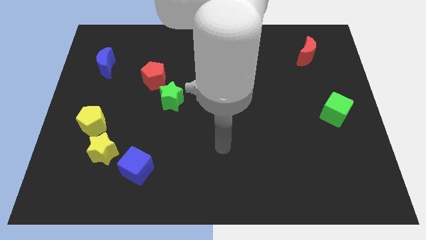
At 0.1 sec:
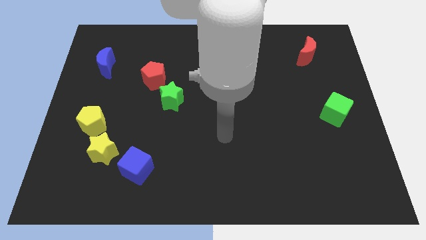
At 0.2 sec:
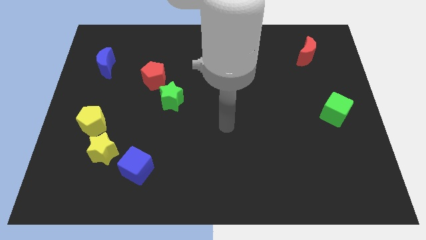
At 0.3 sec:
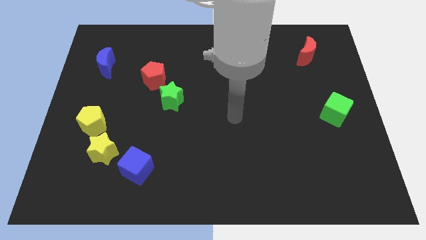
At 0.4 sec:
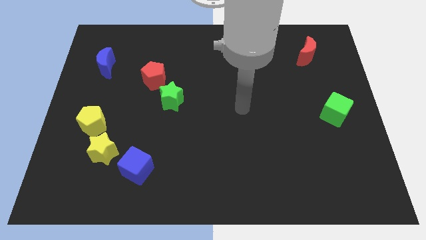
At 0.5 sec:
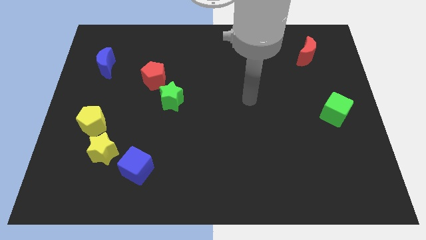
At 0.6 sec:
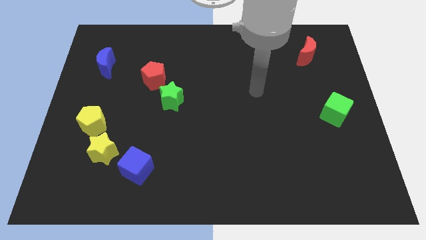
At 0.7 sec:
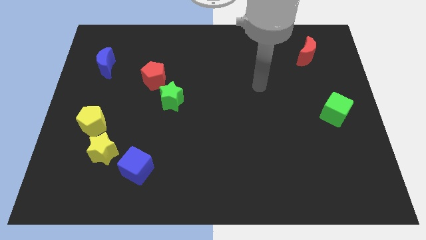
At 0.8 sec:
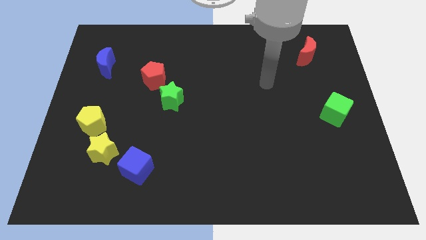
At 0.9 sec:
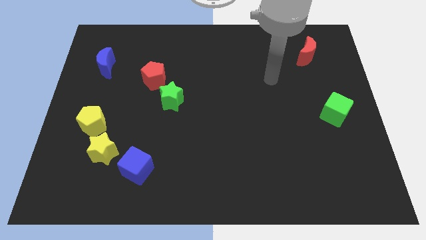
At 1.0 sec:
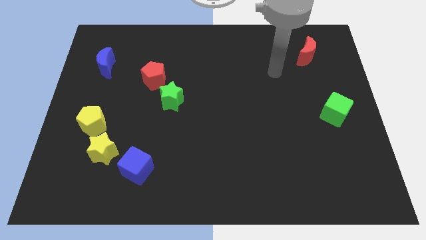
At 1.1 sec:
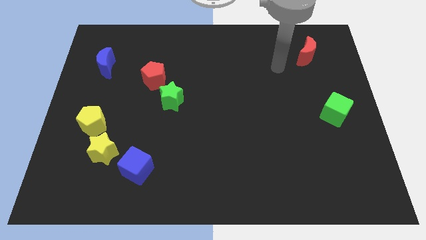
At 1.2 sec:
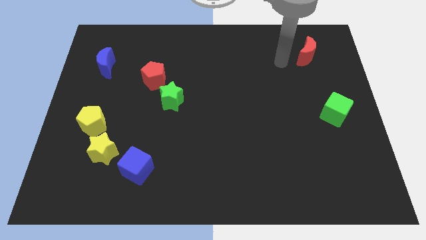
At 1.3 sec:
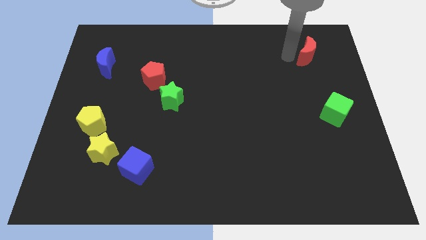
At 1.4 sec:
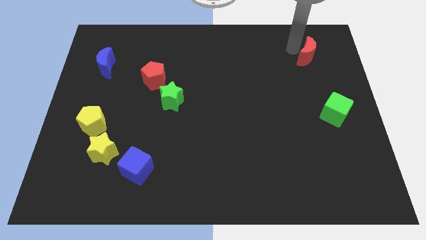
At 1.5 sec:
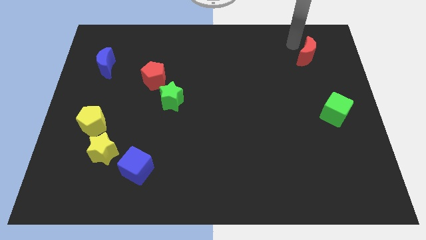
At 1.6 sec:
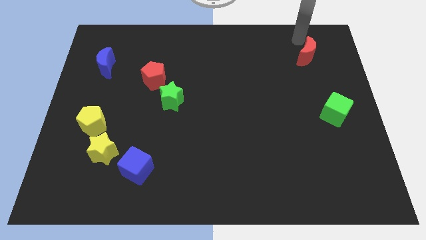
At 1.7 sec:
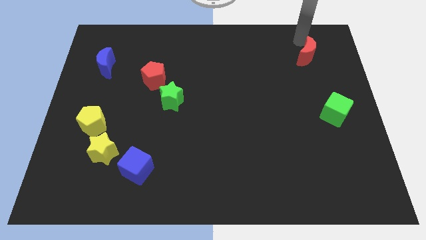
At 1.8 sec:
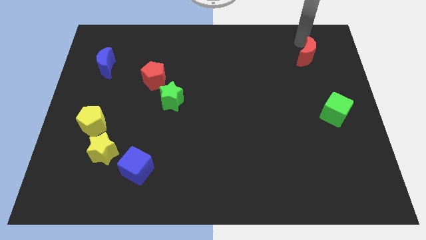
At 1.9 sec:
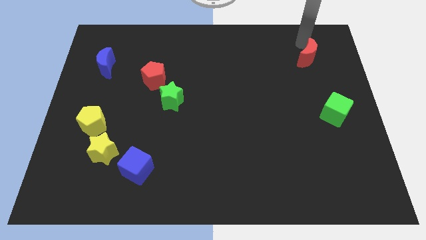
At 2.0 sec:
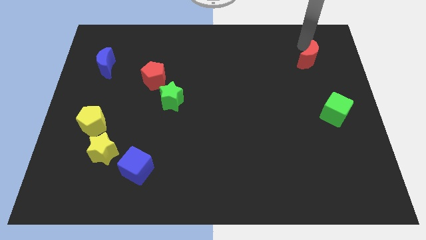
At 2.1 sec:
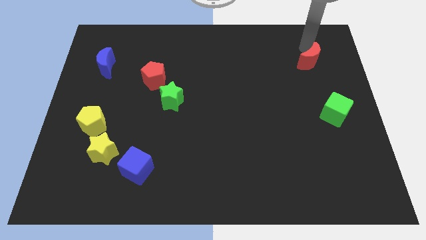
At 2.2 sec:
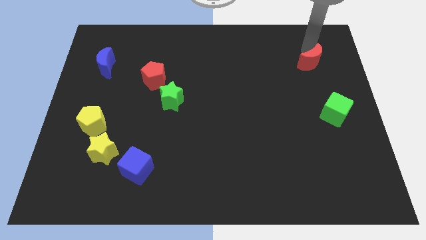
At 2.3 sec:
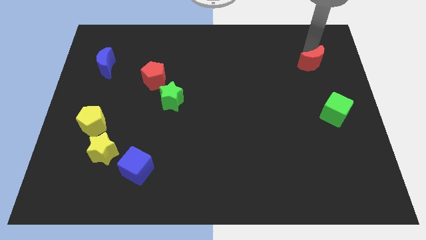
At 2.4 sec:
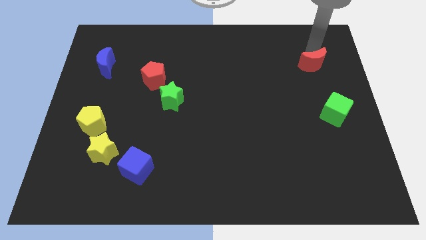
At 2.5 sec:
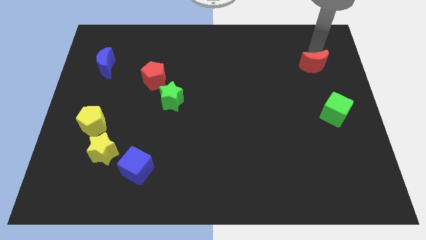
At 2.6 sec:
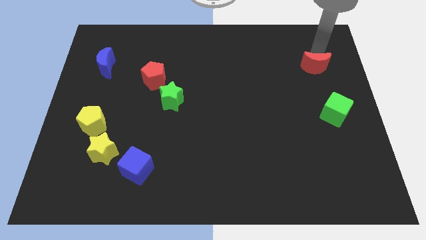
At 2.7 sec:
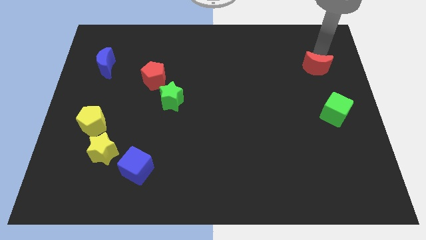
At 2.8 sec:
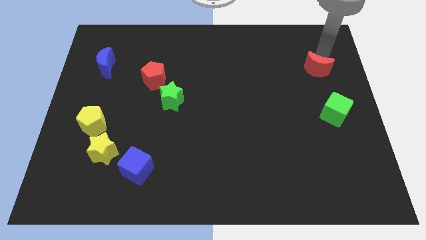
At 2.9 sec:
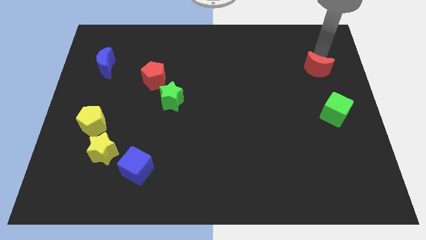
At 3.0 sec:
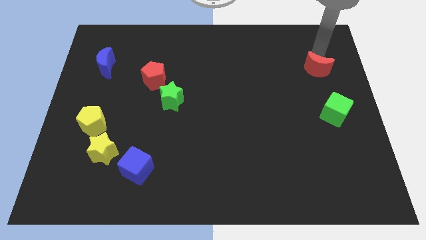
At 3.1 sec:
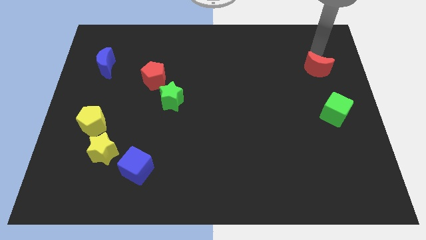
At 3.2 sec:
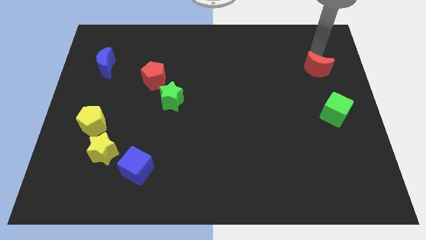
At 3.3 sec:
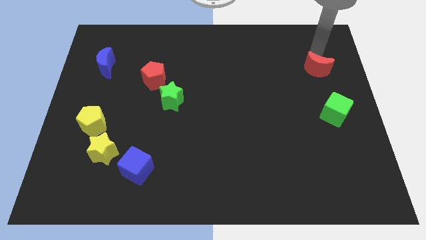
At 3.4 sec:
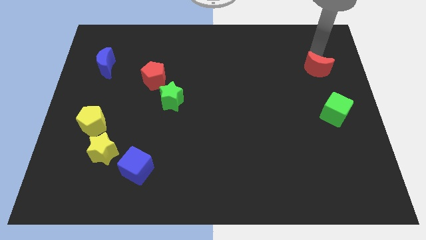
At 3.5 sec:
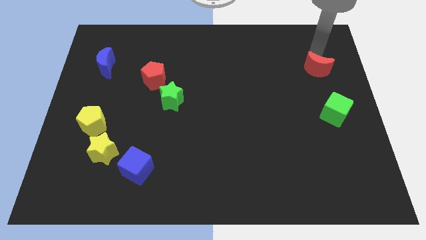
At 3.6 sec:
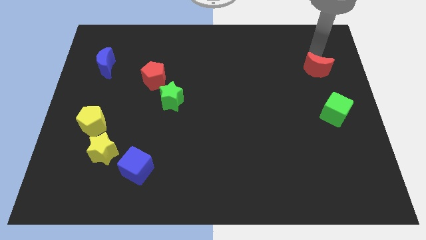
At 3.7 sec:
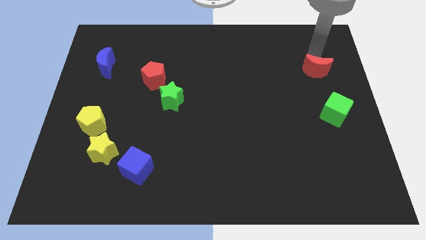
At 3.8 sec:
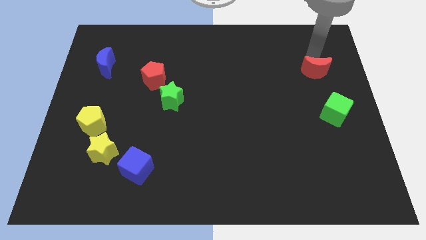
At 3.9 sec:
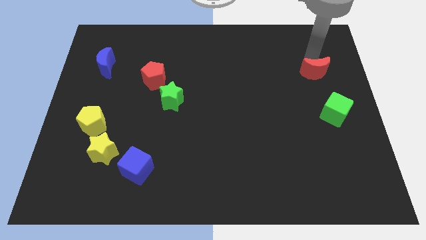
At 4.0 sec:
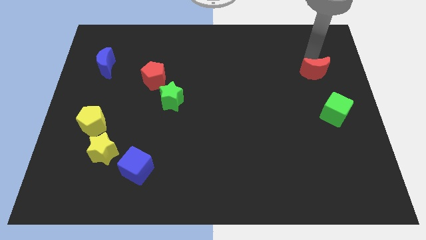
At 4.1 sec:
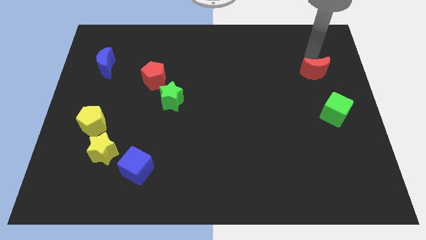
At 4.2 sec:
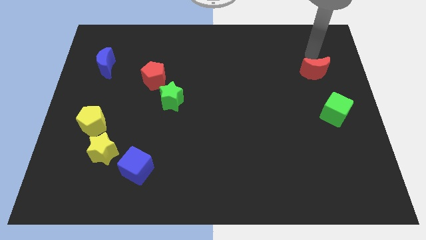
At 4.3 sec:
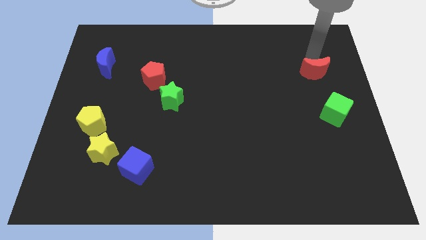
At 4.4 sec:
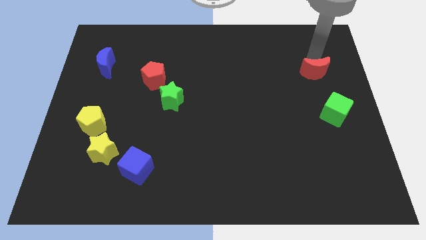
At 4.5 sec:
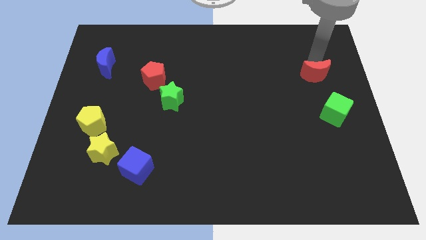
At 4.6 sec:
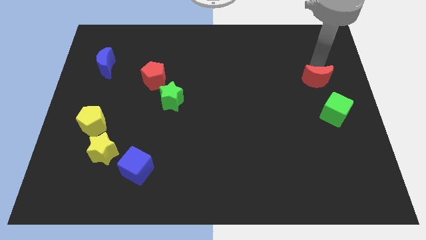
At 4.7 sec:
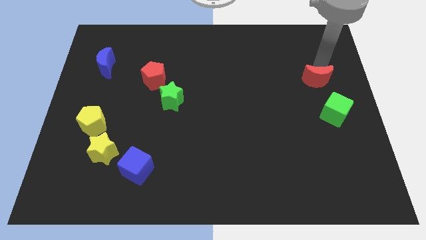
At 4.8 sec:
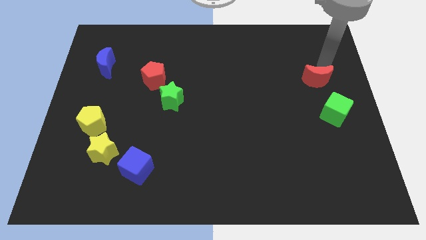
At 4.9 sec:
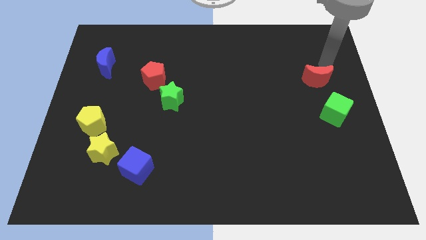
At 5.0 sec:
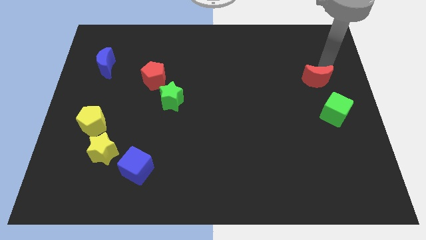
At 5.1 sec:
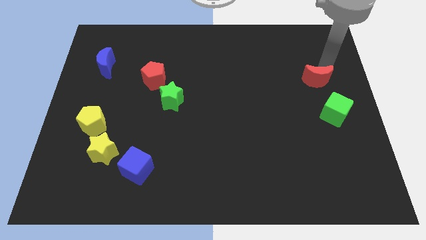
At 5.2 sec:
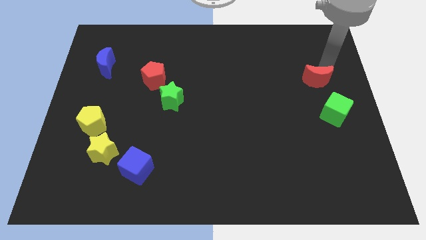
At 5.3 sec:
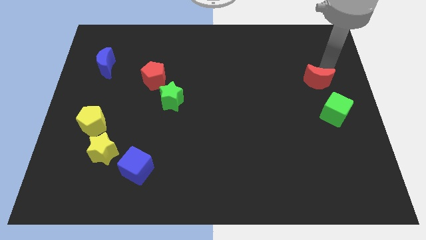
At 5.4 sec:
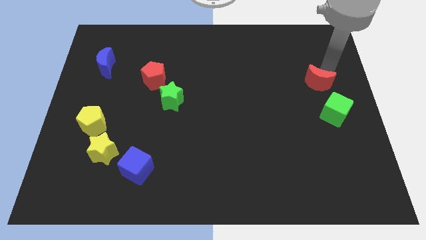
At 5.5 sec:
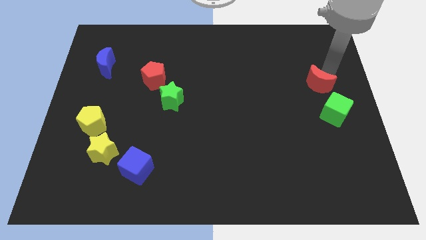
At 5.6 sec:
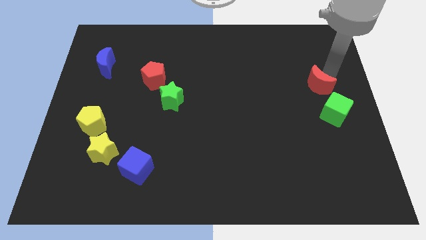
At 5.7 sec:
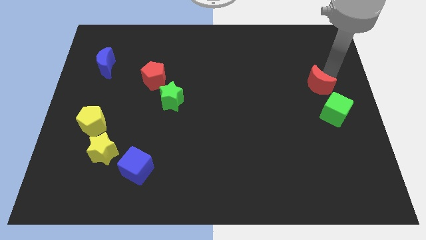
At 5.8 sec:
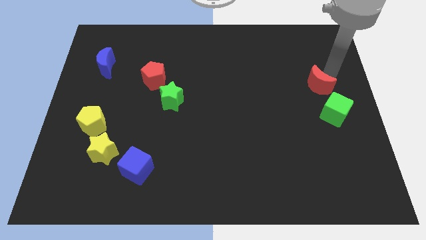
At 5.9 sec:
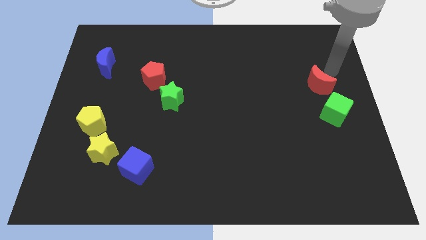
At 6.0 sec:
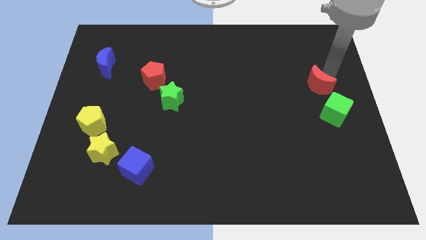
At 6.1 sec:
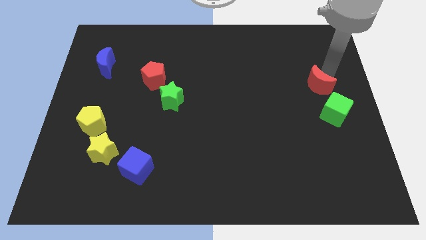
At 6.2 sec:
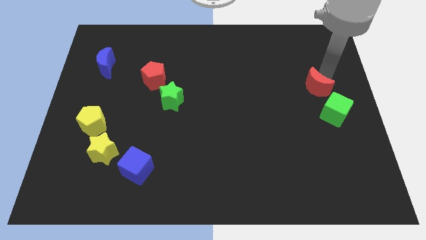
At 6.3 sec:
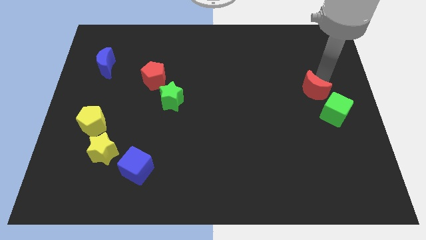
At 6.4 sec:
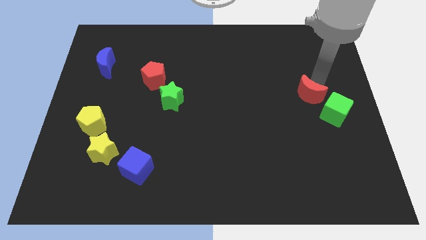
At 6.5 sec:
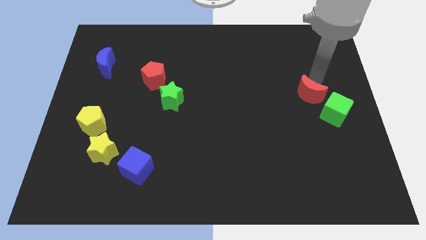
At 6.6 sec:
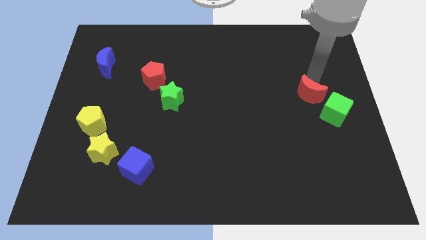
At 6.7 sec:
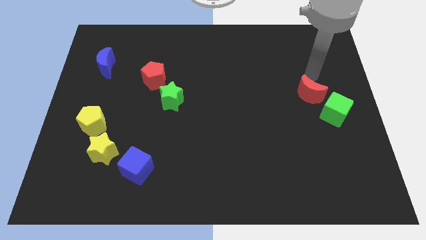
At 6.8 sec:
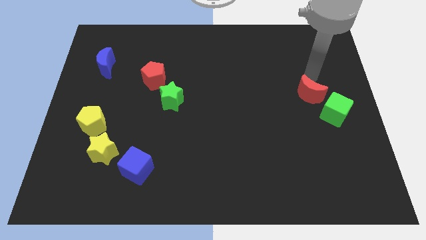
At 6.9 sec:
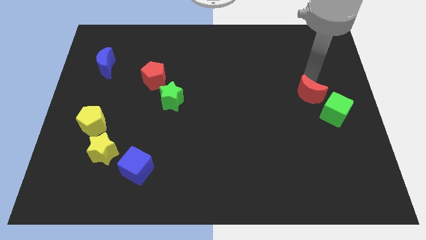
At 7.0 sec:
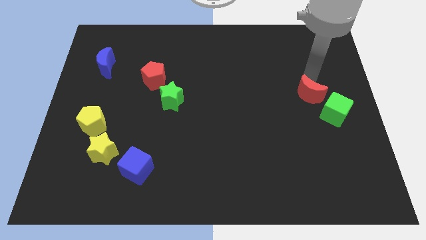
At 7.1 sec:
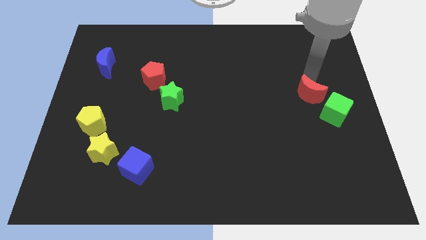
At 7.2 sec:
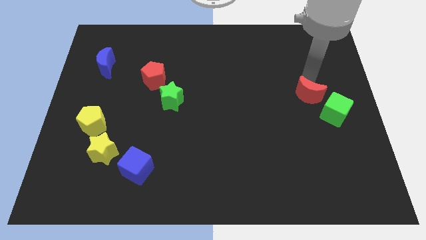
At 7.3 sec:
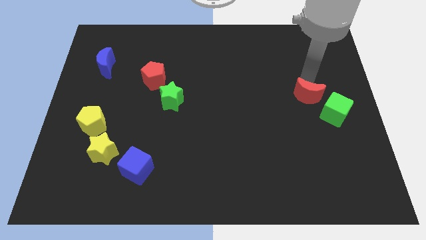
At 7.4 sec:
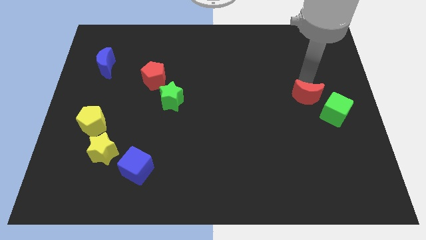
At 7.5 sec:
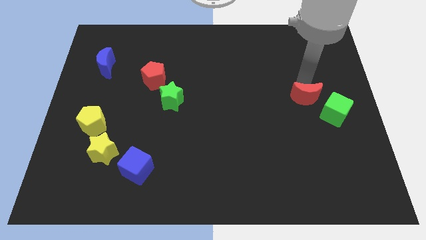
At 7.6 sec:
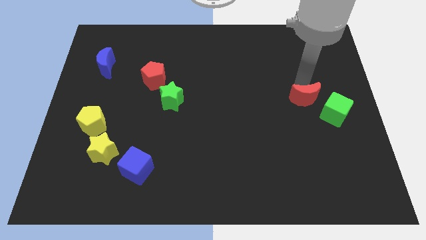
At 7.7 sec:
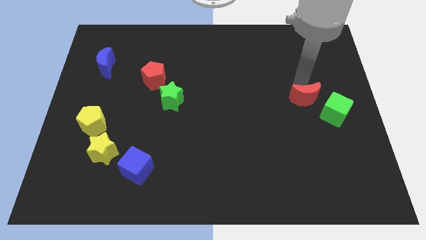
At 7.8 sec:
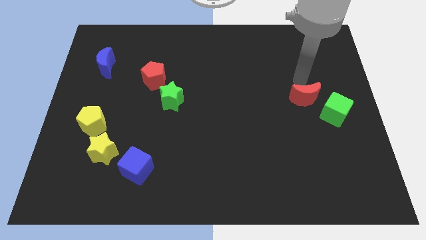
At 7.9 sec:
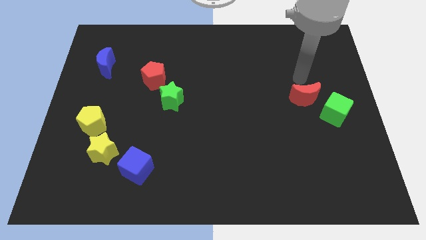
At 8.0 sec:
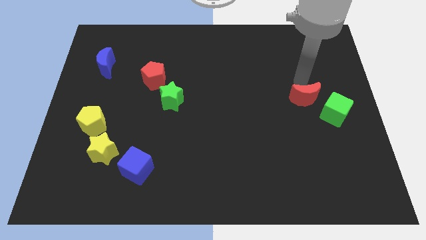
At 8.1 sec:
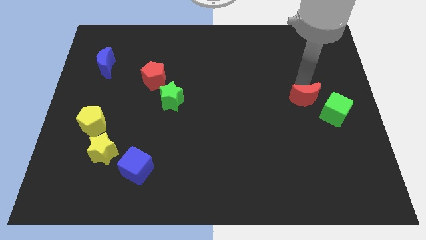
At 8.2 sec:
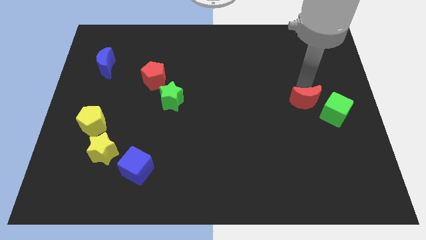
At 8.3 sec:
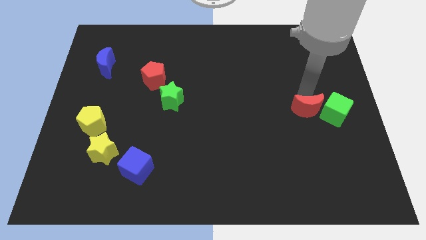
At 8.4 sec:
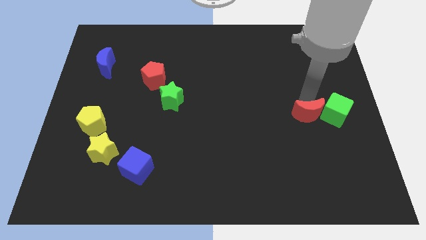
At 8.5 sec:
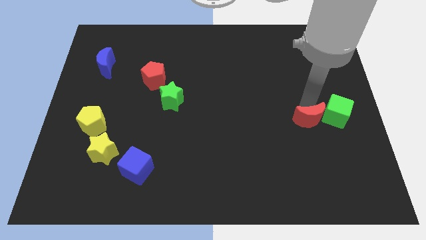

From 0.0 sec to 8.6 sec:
move the red moon down
